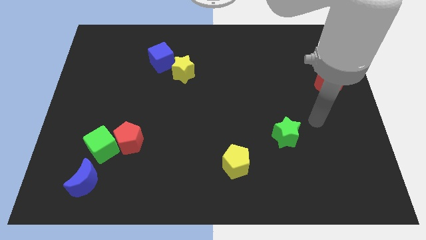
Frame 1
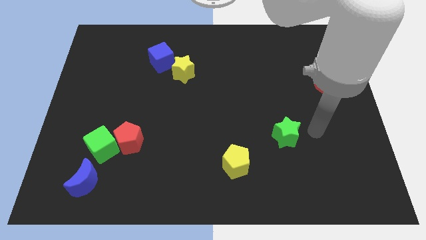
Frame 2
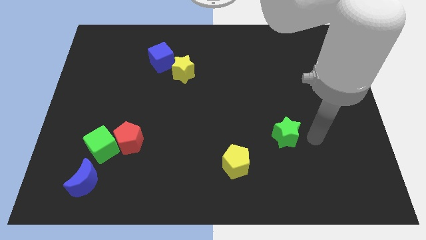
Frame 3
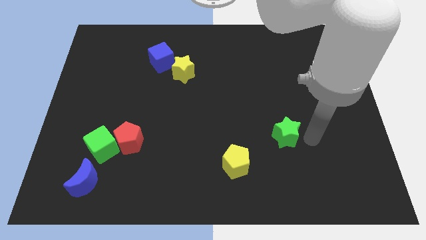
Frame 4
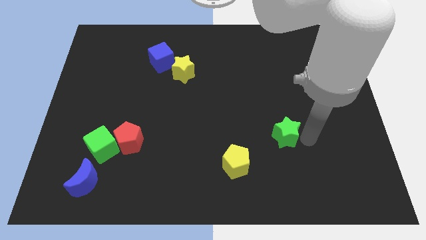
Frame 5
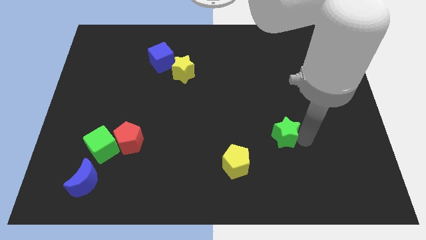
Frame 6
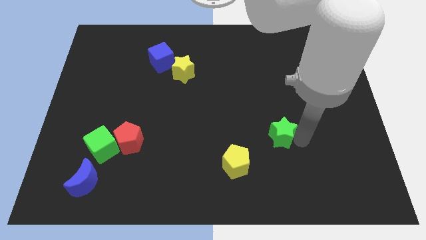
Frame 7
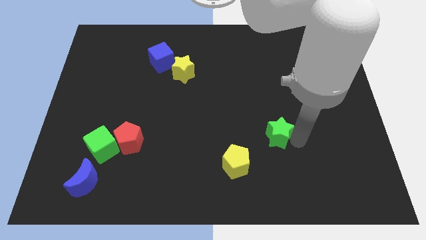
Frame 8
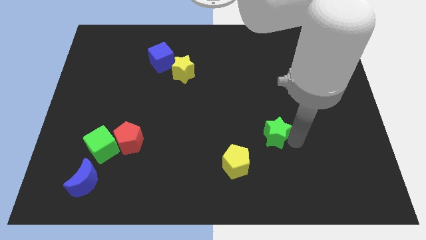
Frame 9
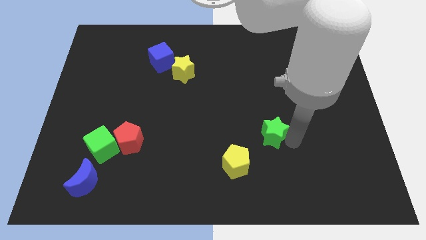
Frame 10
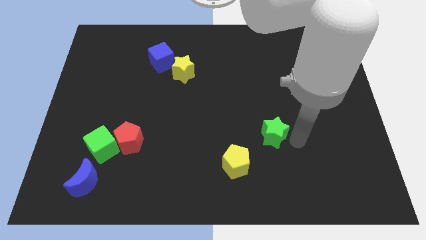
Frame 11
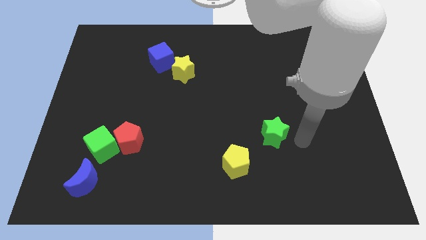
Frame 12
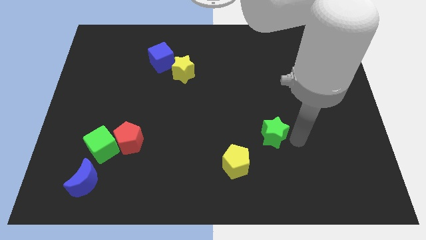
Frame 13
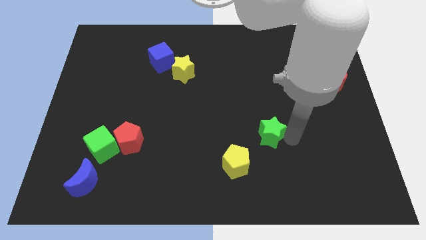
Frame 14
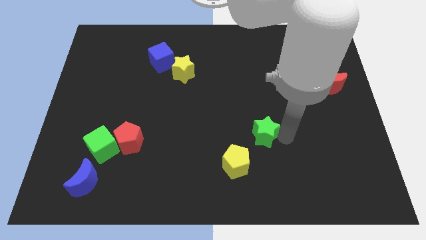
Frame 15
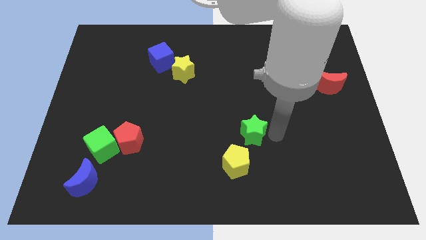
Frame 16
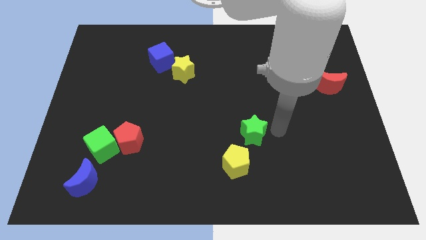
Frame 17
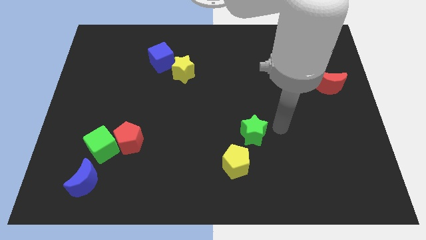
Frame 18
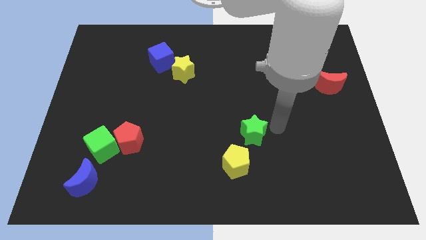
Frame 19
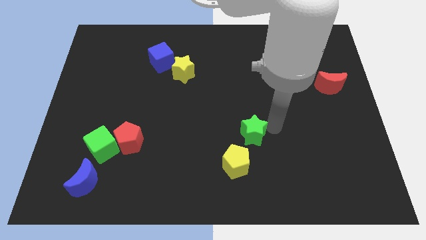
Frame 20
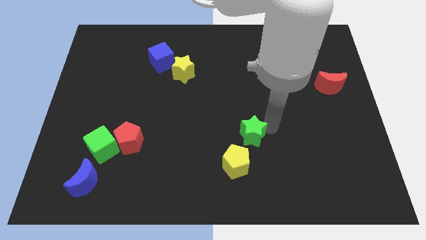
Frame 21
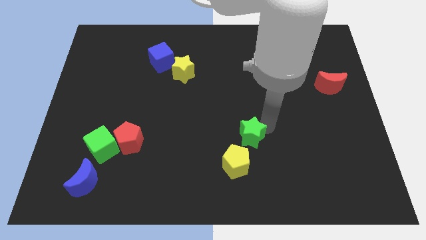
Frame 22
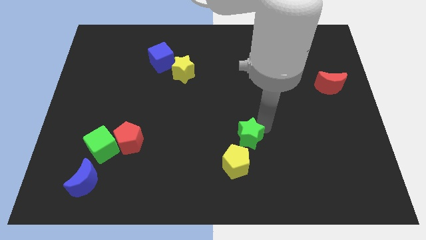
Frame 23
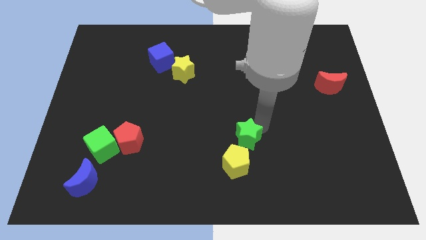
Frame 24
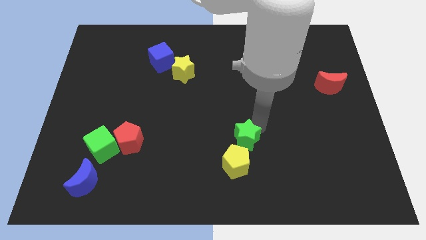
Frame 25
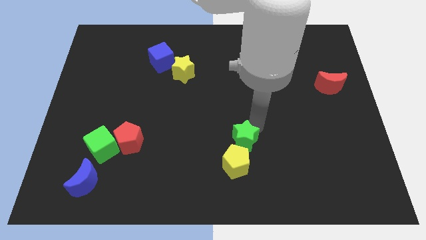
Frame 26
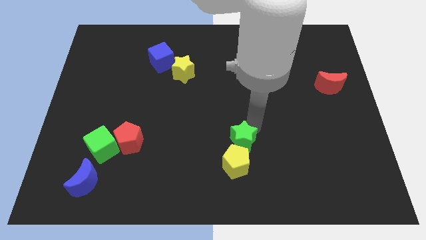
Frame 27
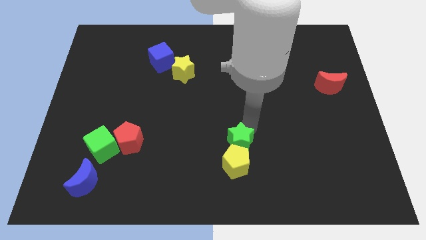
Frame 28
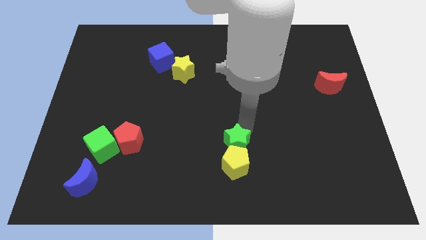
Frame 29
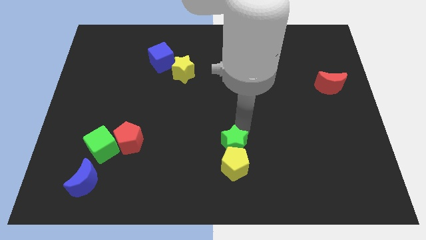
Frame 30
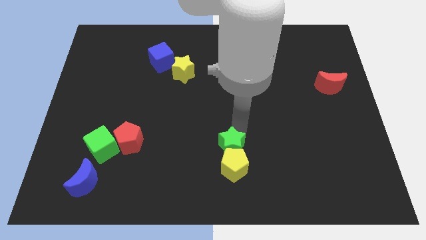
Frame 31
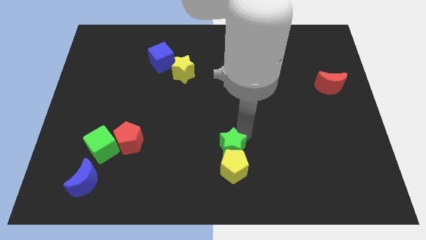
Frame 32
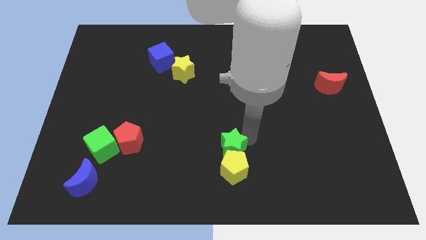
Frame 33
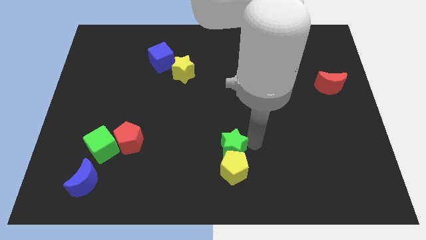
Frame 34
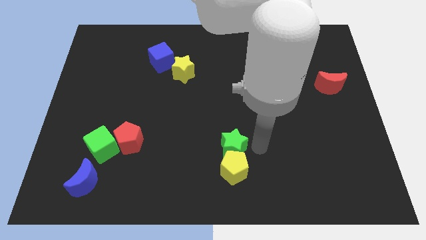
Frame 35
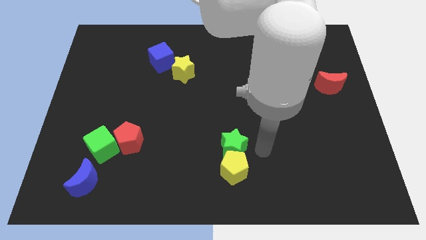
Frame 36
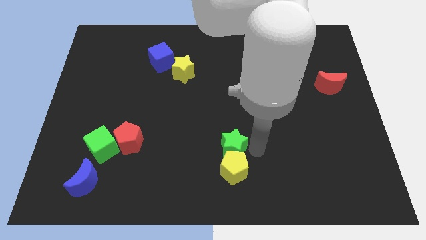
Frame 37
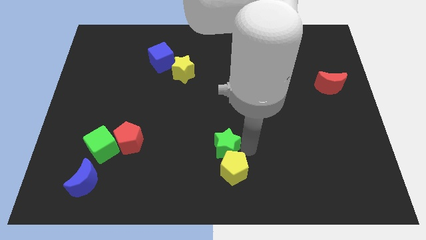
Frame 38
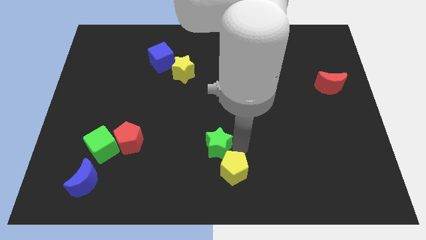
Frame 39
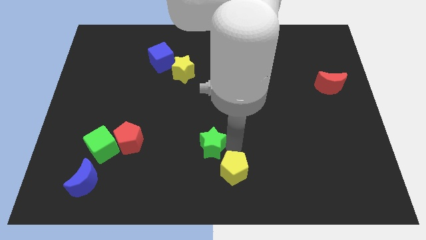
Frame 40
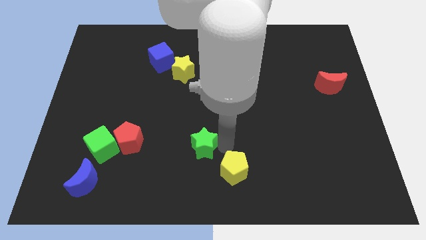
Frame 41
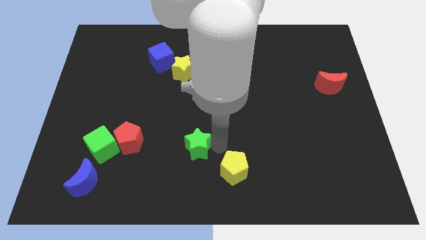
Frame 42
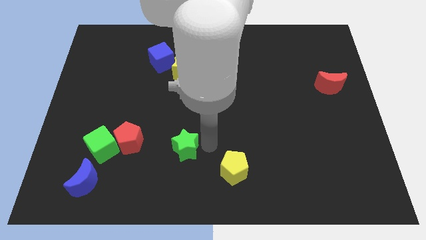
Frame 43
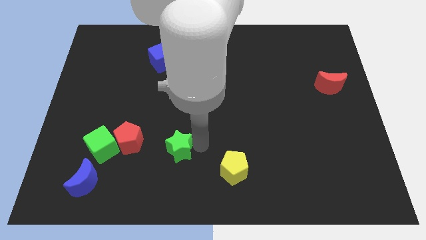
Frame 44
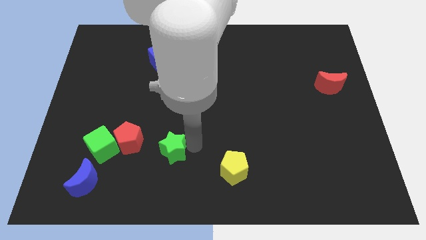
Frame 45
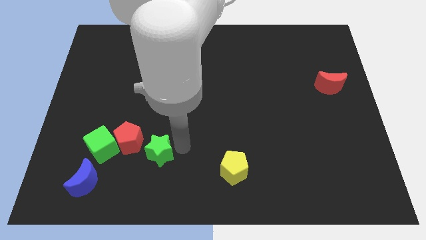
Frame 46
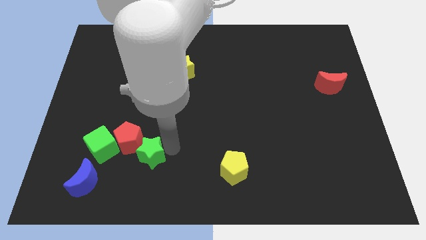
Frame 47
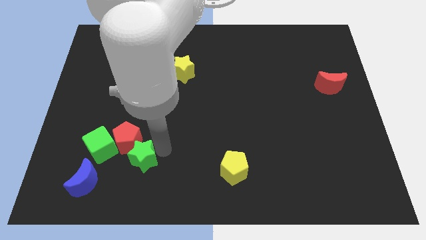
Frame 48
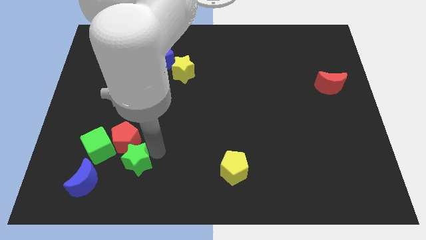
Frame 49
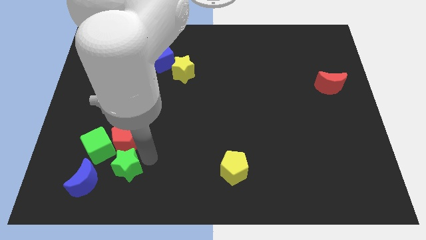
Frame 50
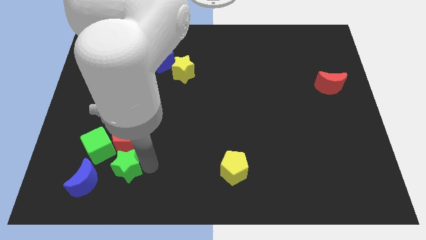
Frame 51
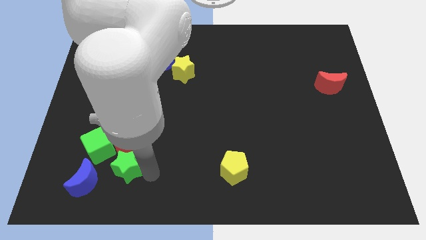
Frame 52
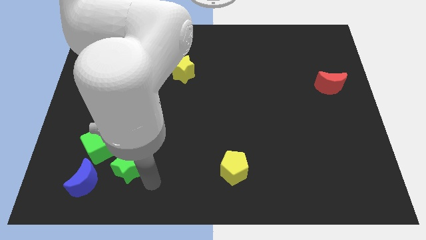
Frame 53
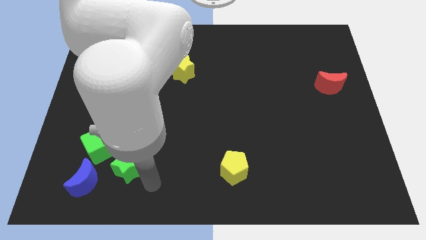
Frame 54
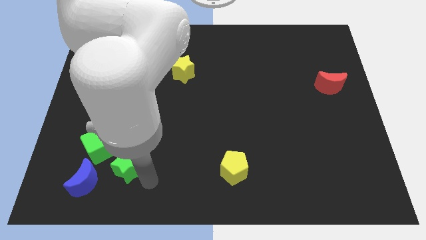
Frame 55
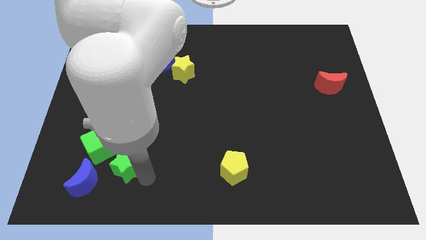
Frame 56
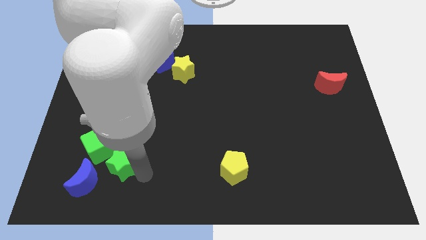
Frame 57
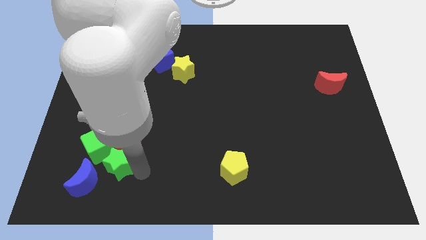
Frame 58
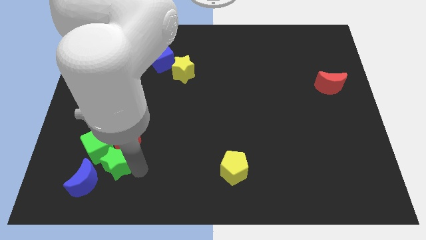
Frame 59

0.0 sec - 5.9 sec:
move the green star close to the green cube

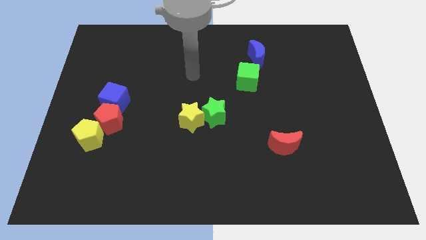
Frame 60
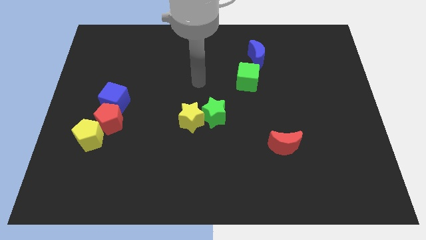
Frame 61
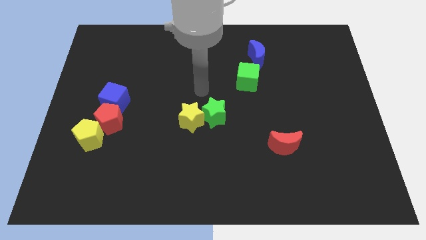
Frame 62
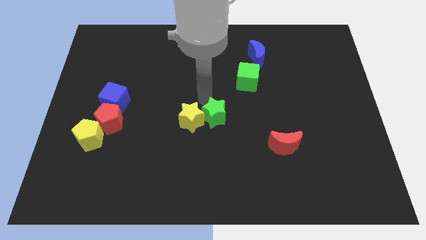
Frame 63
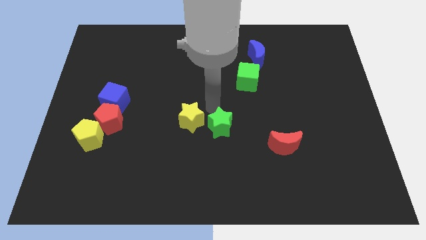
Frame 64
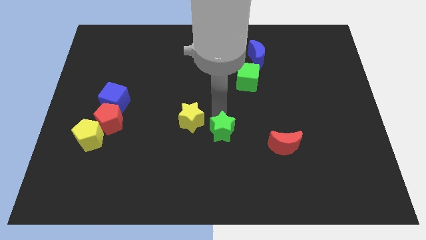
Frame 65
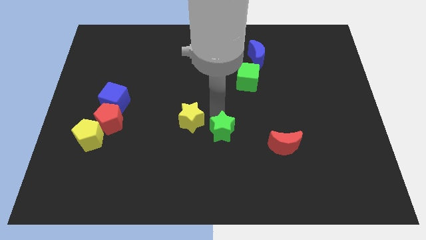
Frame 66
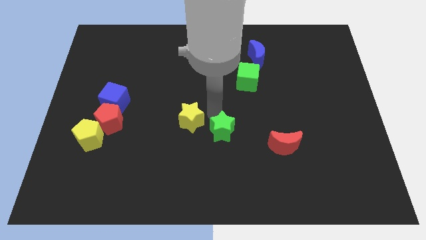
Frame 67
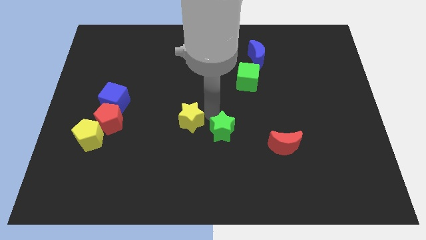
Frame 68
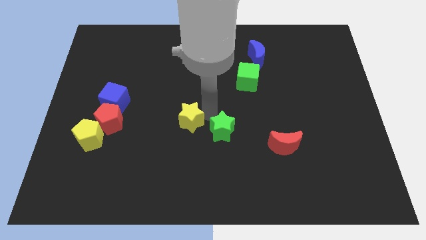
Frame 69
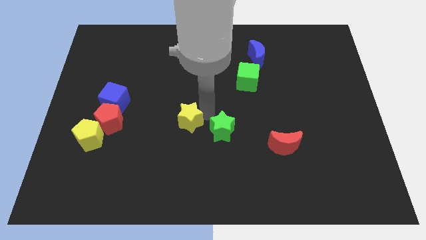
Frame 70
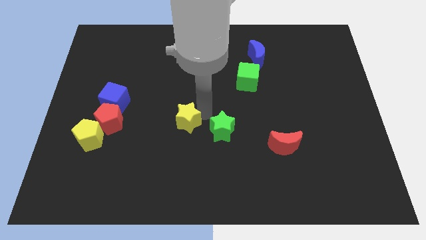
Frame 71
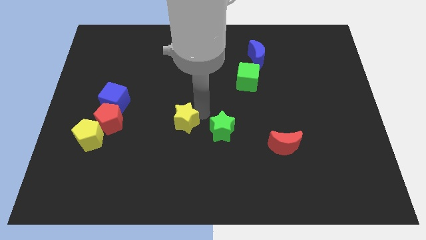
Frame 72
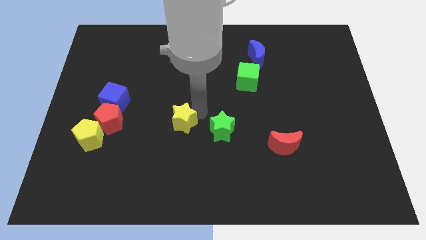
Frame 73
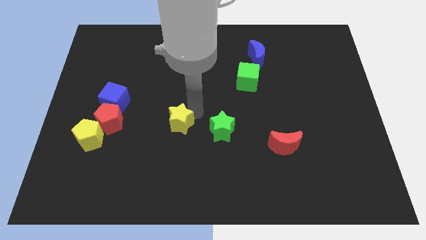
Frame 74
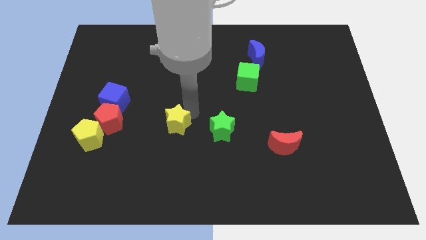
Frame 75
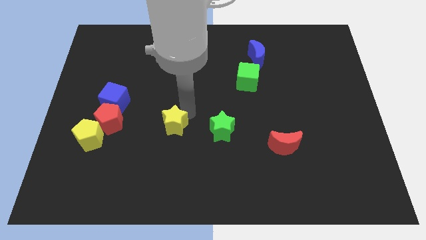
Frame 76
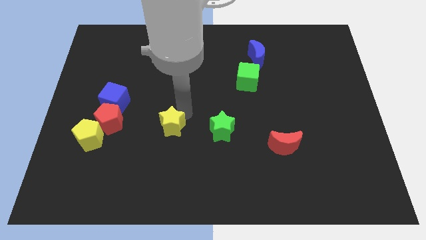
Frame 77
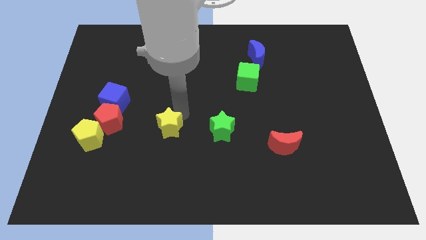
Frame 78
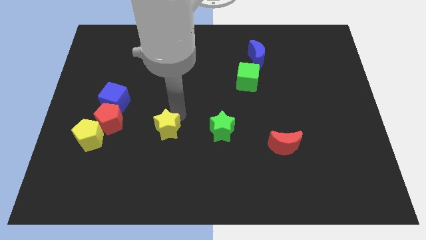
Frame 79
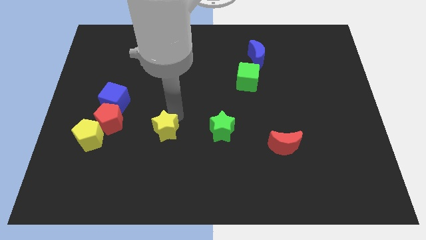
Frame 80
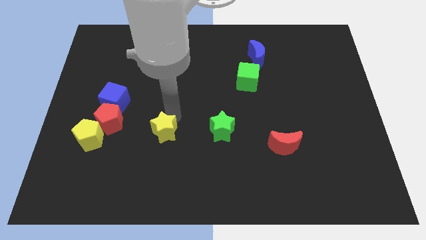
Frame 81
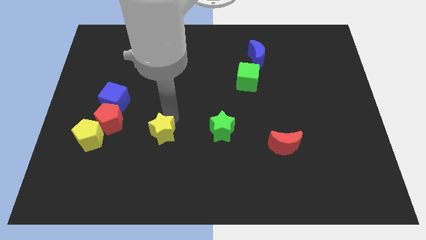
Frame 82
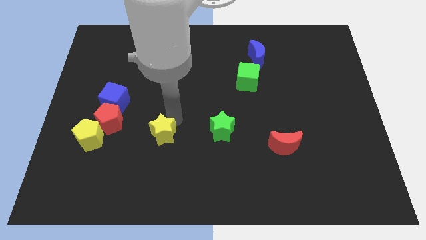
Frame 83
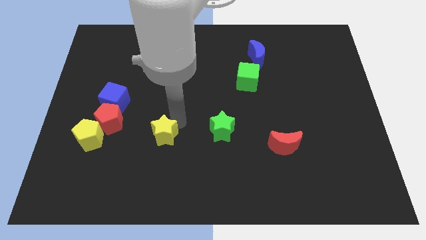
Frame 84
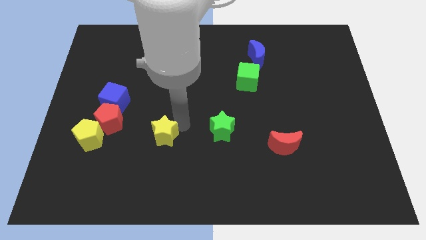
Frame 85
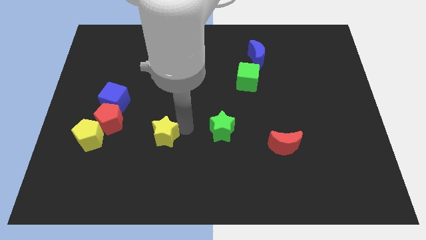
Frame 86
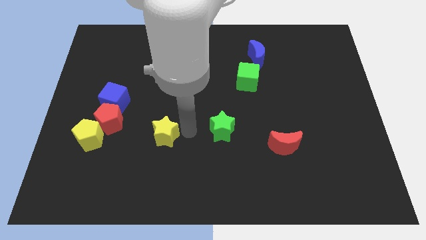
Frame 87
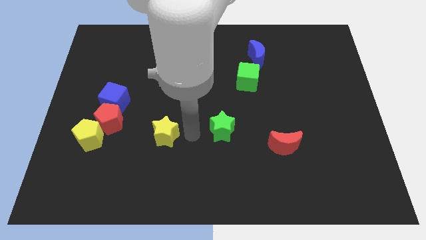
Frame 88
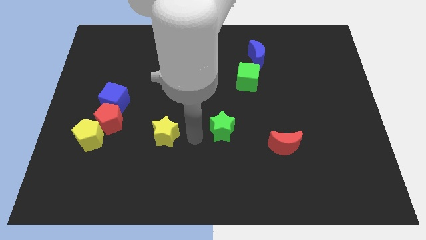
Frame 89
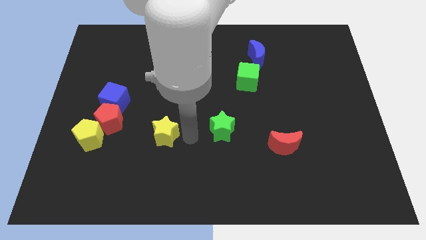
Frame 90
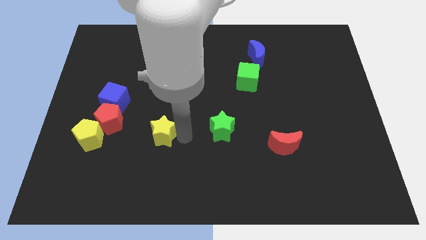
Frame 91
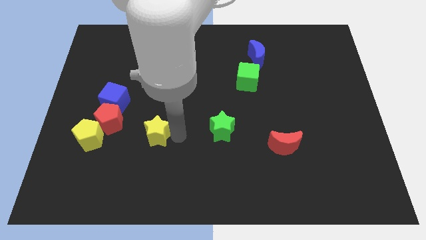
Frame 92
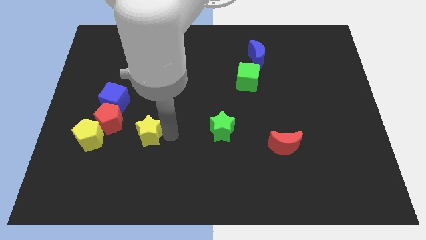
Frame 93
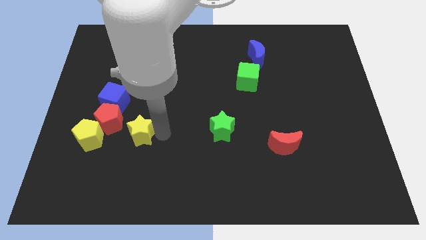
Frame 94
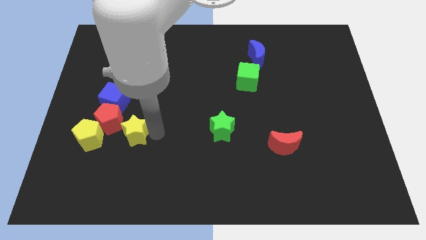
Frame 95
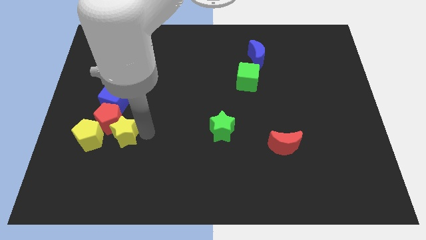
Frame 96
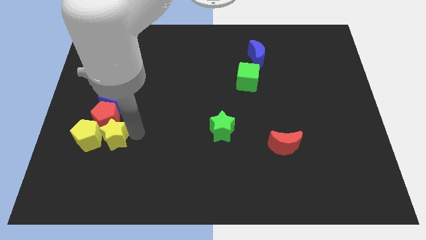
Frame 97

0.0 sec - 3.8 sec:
put the yellow star next to the yellow pentagon
